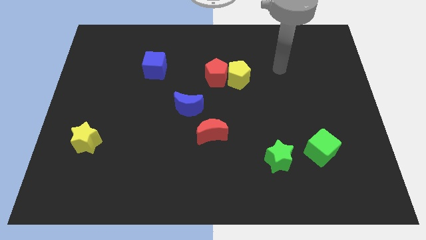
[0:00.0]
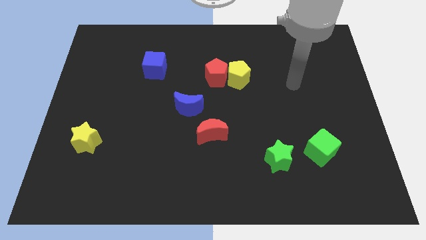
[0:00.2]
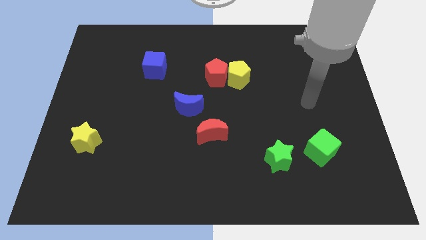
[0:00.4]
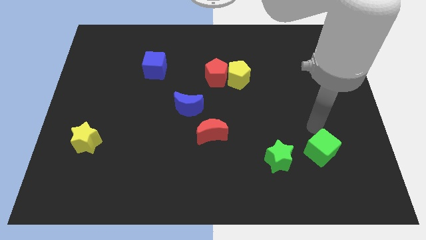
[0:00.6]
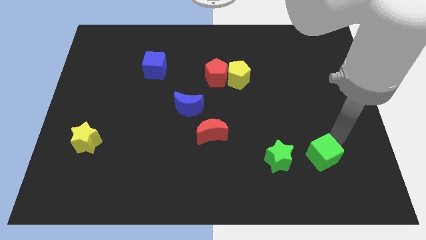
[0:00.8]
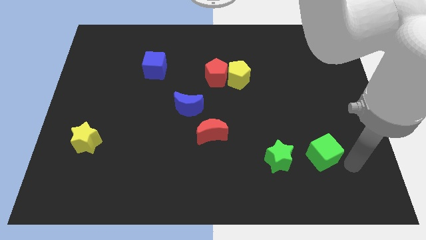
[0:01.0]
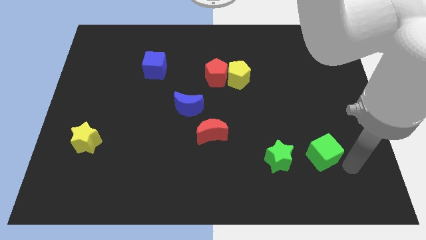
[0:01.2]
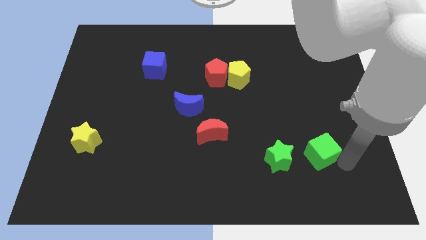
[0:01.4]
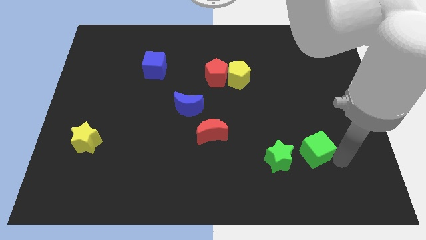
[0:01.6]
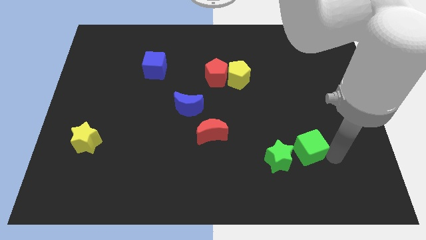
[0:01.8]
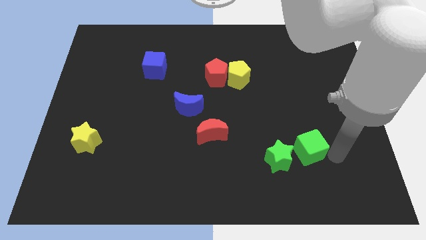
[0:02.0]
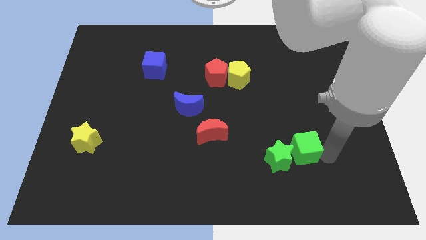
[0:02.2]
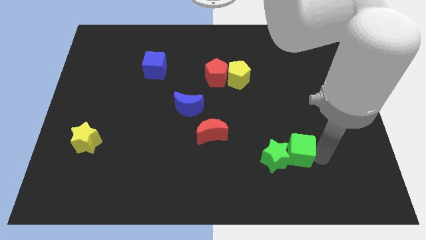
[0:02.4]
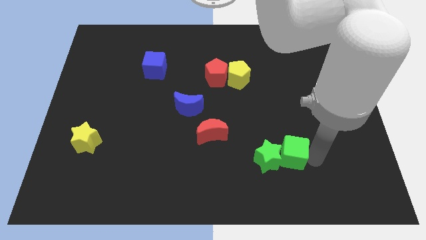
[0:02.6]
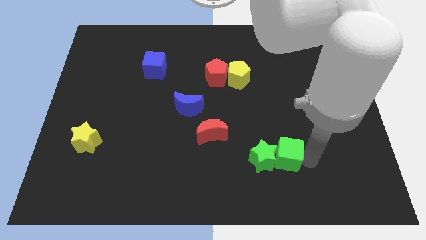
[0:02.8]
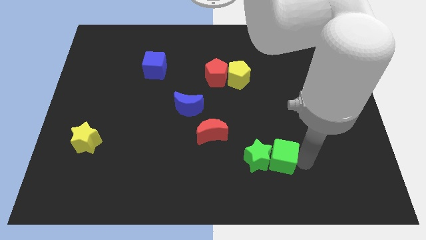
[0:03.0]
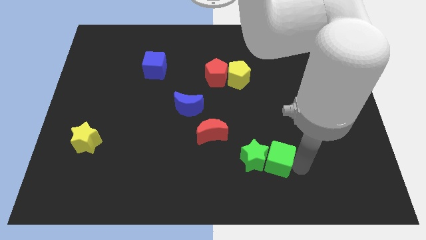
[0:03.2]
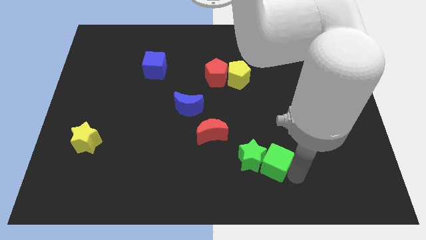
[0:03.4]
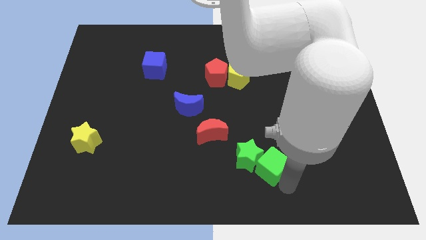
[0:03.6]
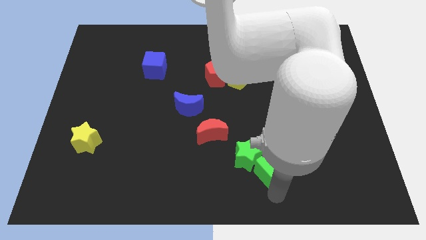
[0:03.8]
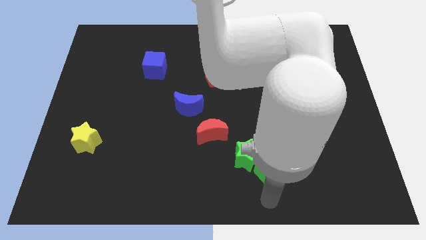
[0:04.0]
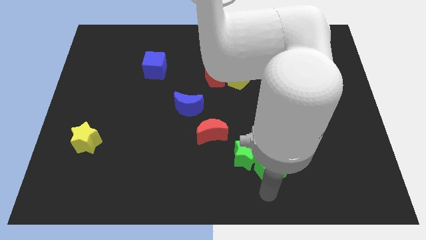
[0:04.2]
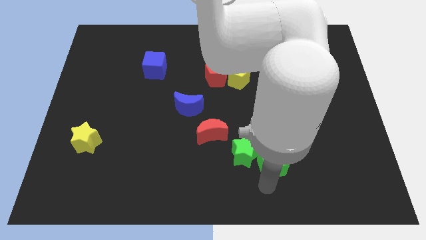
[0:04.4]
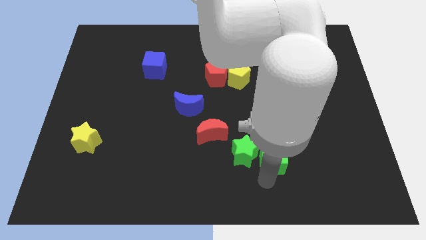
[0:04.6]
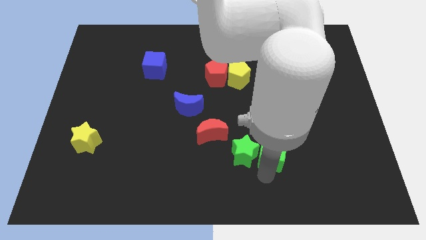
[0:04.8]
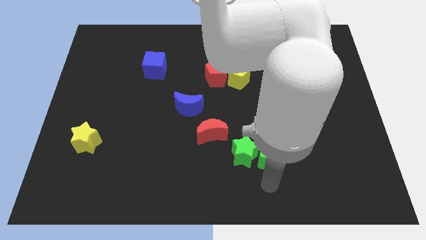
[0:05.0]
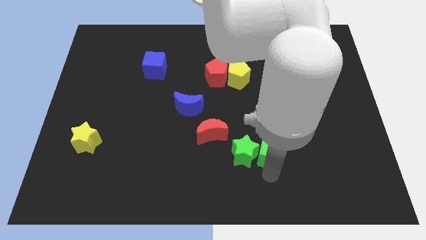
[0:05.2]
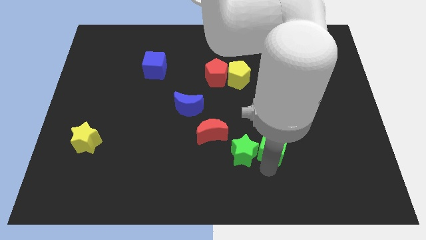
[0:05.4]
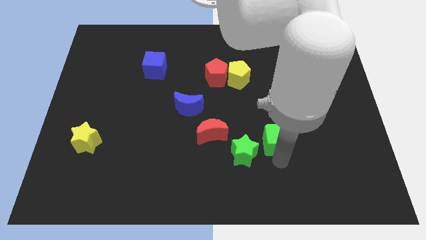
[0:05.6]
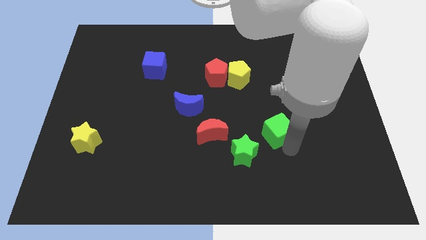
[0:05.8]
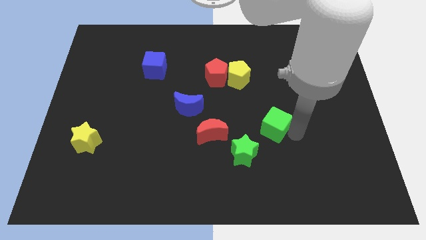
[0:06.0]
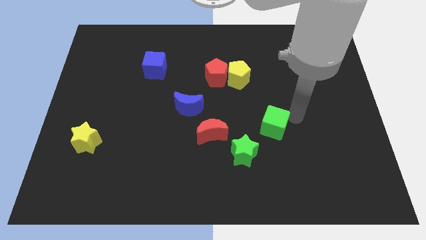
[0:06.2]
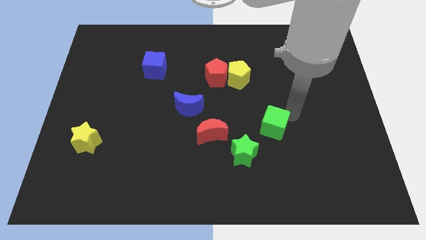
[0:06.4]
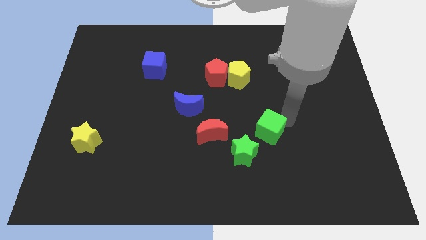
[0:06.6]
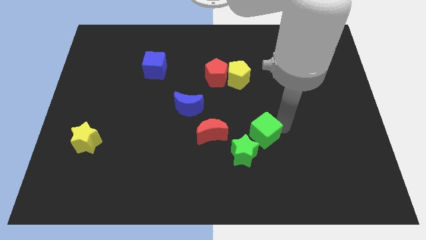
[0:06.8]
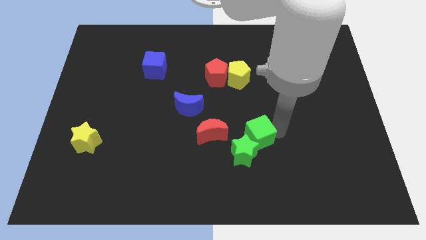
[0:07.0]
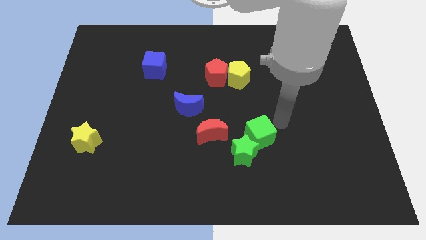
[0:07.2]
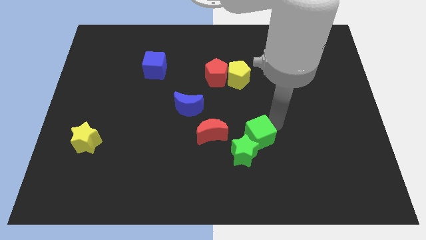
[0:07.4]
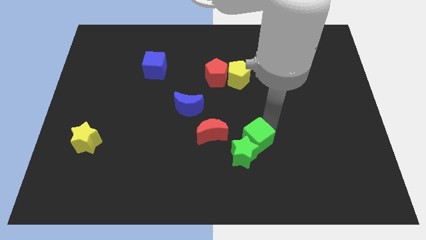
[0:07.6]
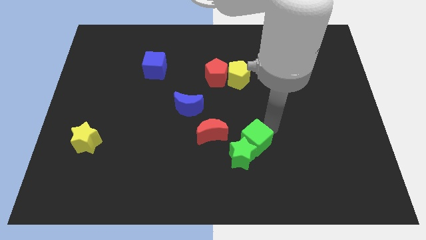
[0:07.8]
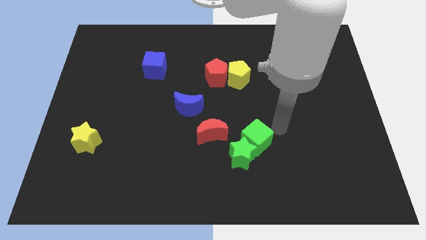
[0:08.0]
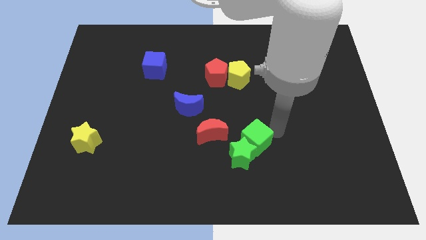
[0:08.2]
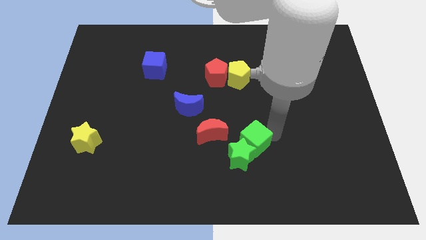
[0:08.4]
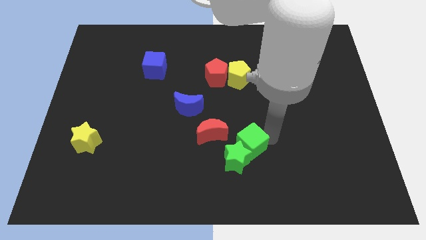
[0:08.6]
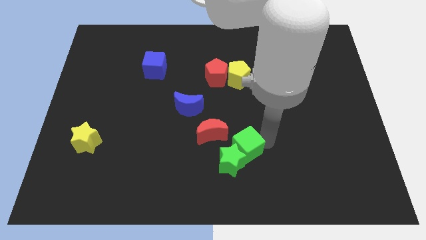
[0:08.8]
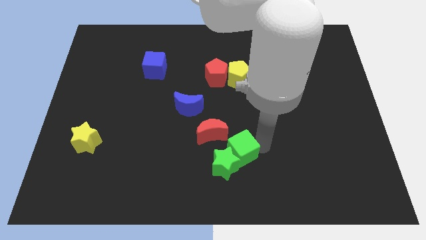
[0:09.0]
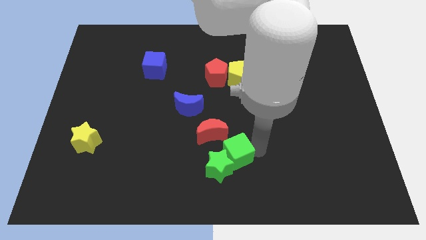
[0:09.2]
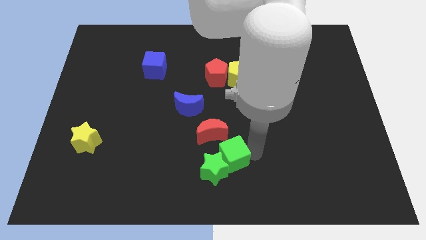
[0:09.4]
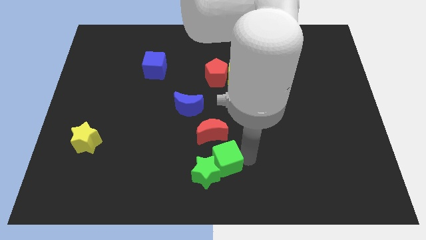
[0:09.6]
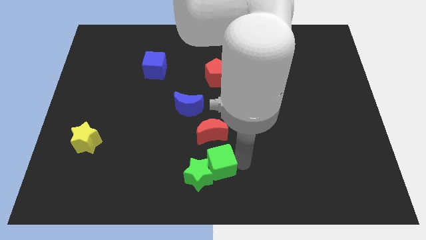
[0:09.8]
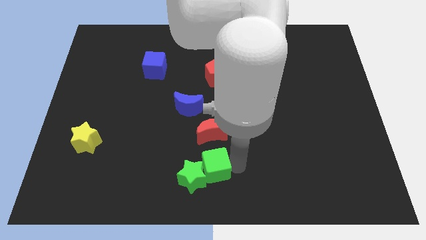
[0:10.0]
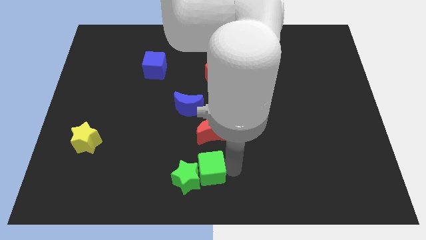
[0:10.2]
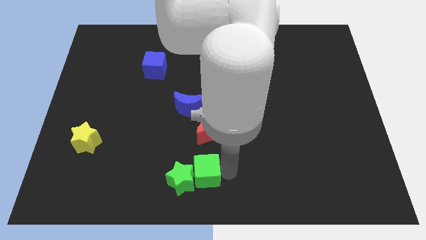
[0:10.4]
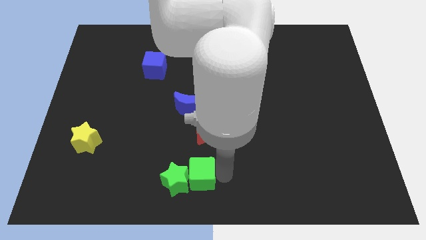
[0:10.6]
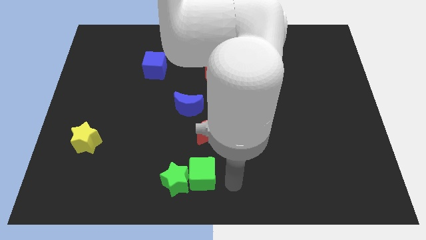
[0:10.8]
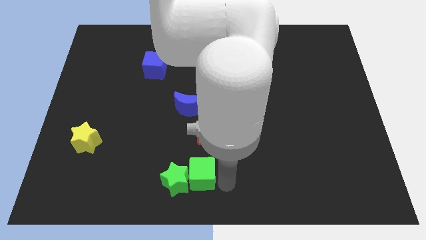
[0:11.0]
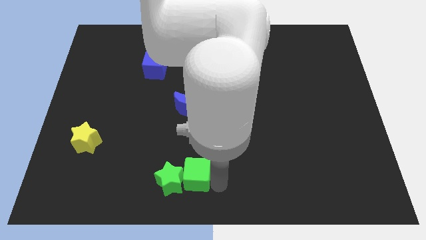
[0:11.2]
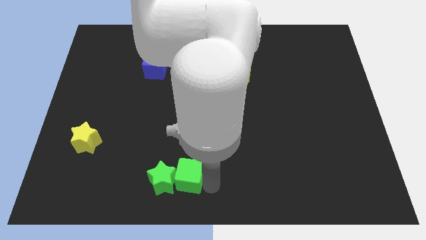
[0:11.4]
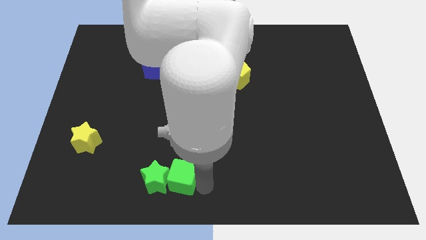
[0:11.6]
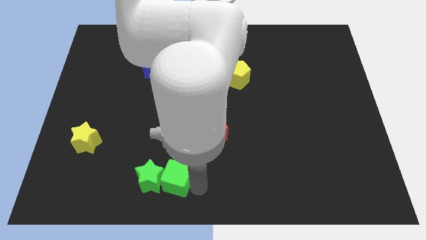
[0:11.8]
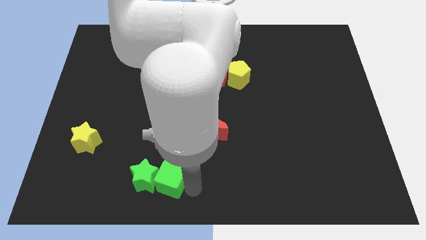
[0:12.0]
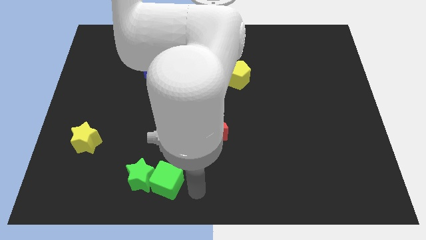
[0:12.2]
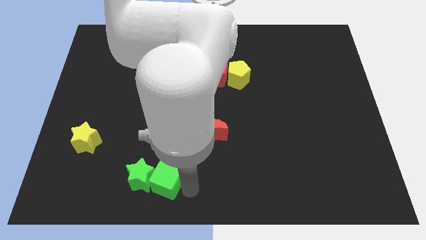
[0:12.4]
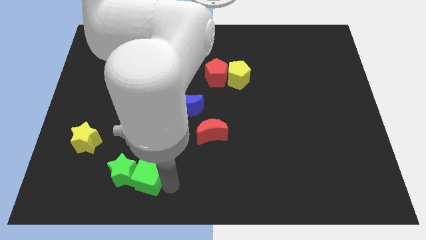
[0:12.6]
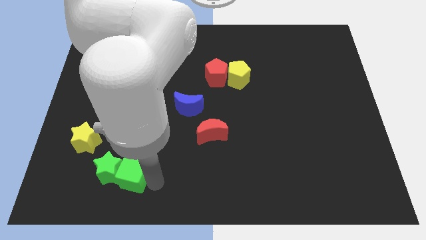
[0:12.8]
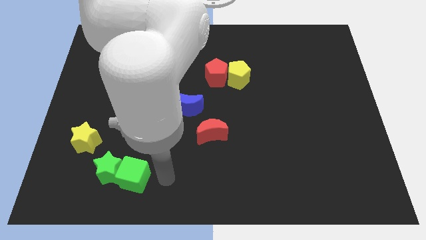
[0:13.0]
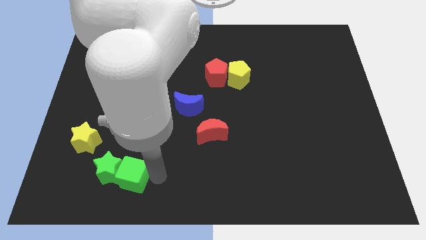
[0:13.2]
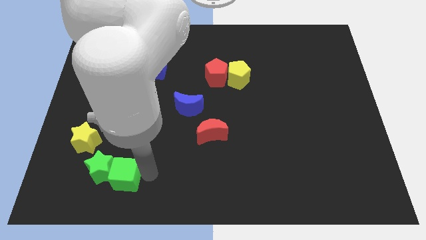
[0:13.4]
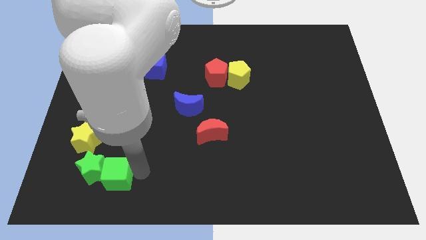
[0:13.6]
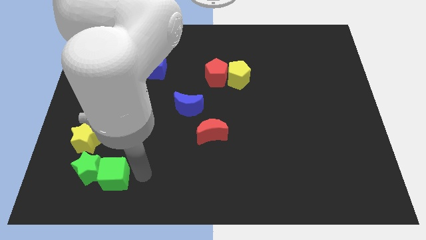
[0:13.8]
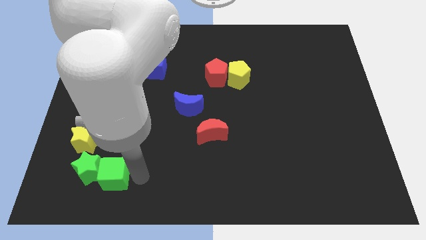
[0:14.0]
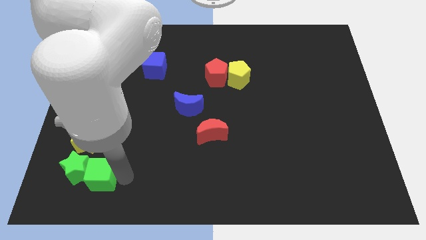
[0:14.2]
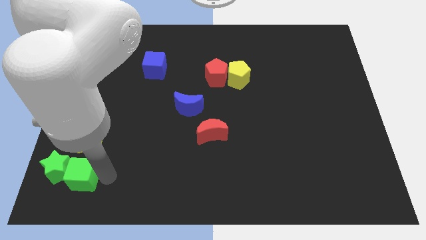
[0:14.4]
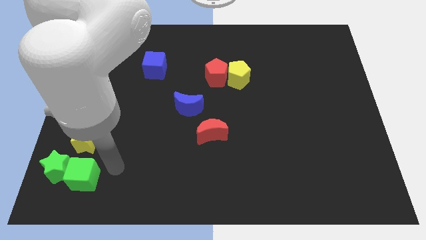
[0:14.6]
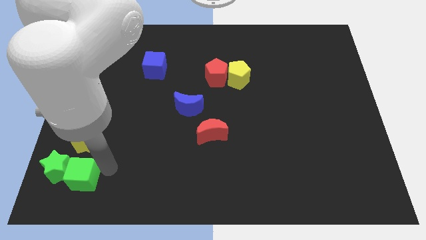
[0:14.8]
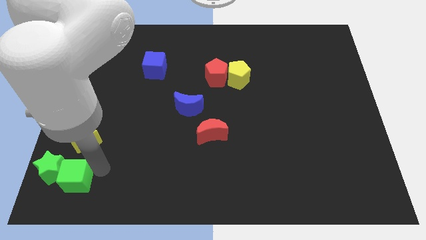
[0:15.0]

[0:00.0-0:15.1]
put the green cube to the lower left corner
